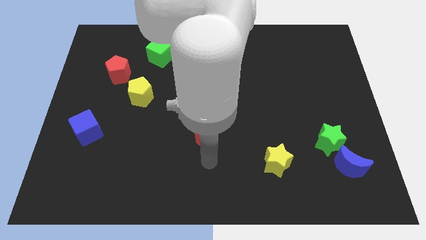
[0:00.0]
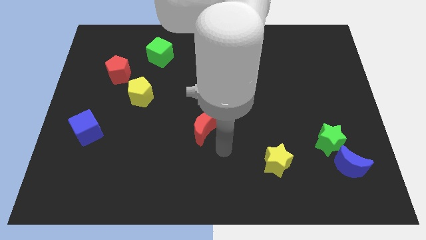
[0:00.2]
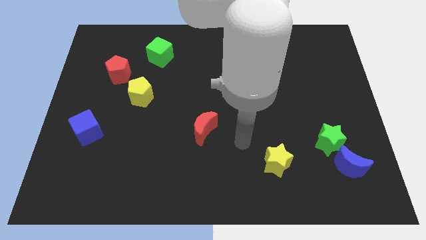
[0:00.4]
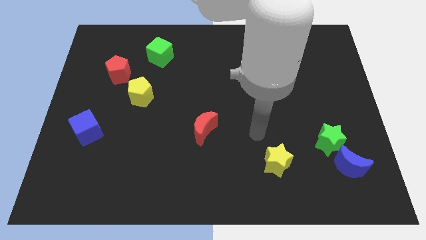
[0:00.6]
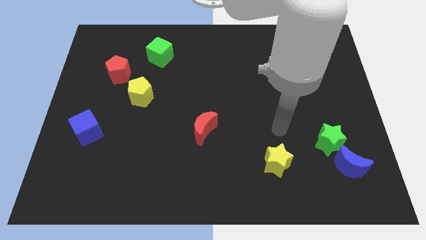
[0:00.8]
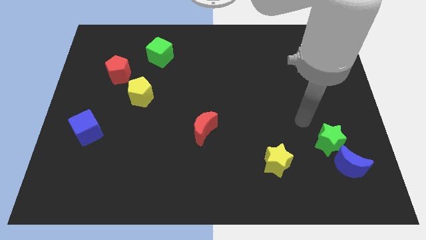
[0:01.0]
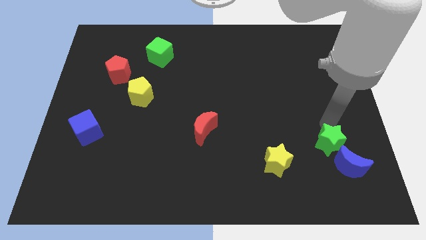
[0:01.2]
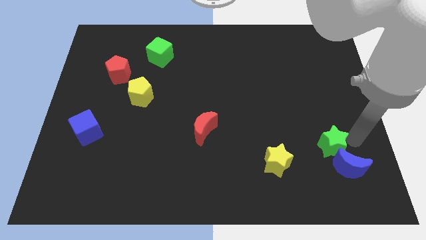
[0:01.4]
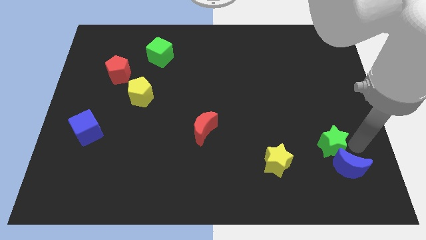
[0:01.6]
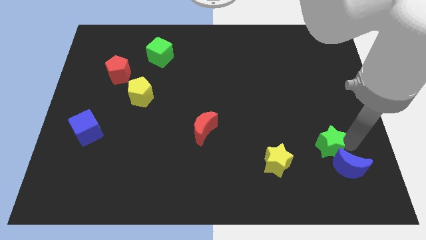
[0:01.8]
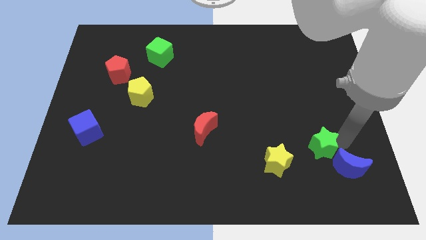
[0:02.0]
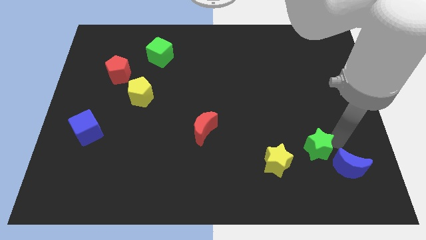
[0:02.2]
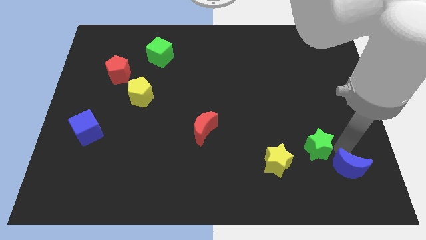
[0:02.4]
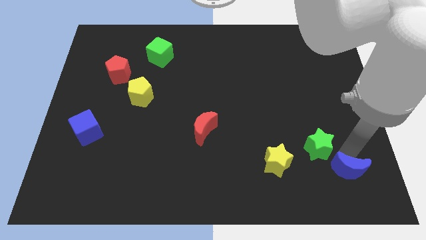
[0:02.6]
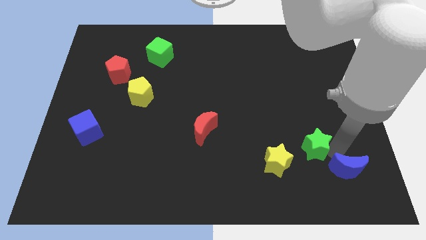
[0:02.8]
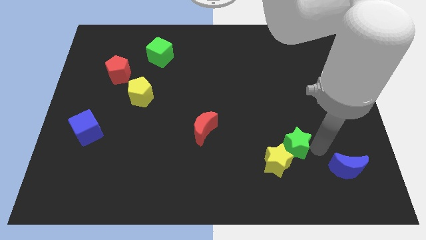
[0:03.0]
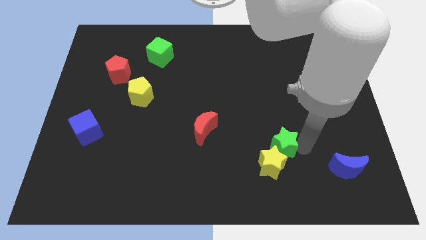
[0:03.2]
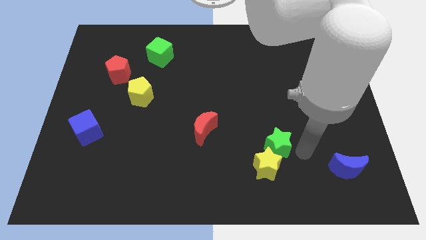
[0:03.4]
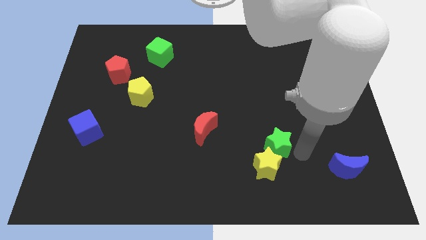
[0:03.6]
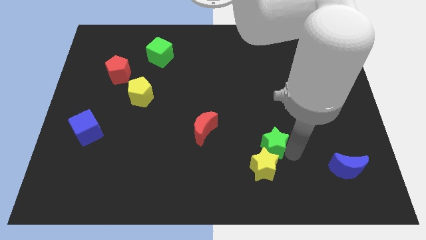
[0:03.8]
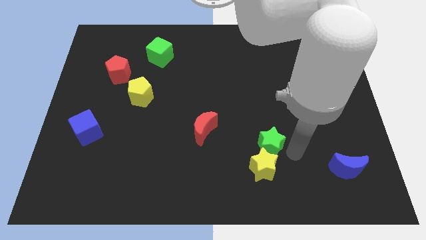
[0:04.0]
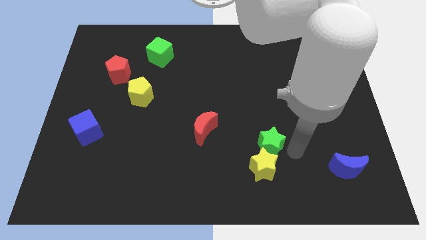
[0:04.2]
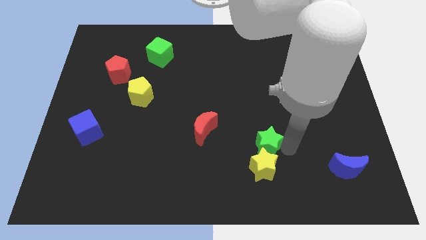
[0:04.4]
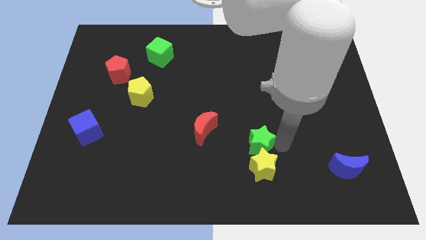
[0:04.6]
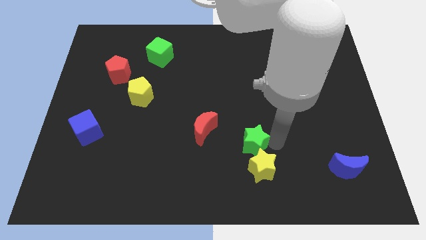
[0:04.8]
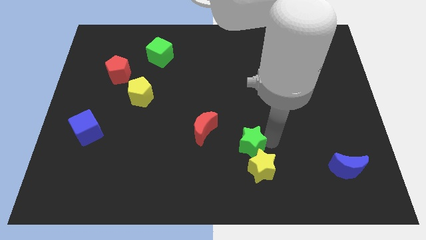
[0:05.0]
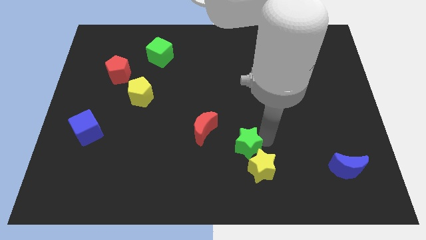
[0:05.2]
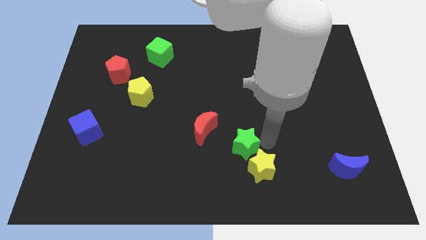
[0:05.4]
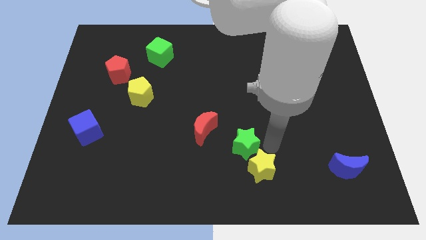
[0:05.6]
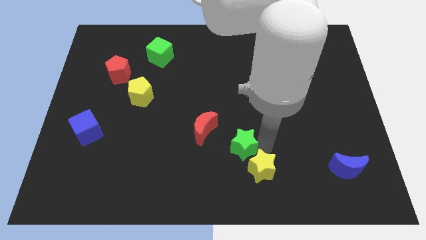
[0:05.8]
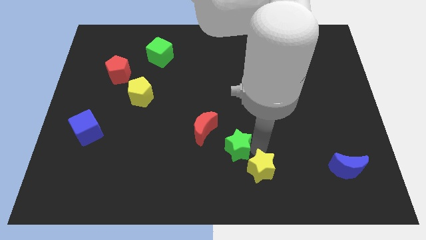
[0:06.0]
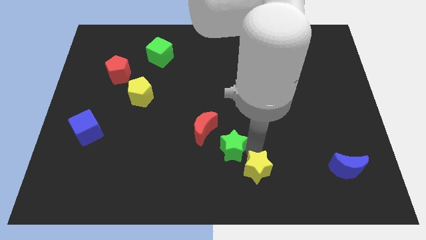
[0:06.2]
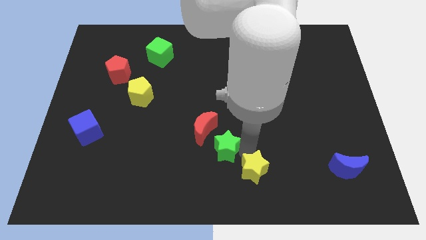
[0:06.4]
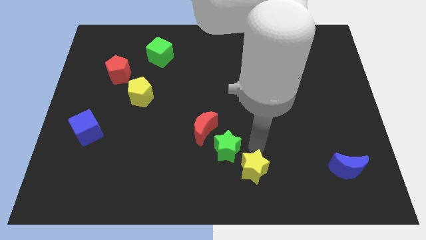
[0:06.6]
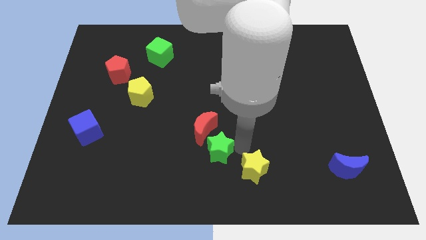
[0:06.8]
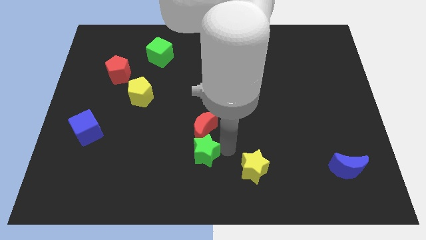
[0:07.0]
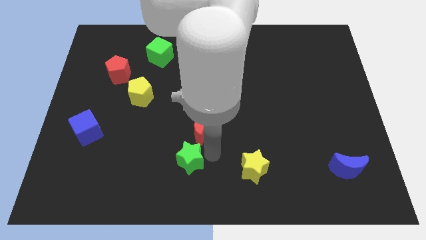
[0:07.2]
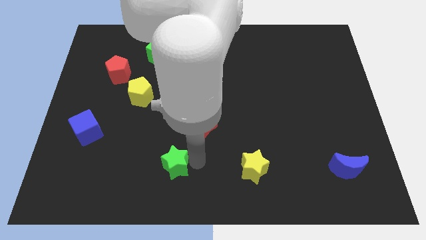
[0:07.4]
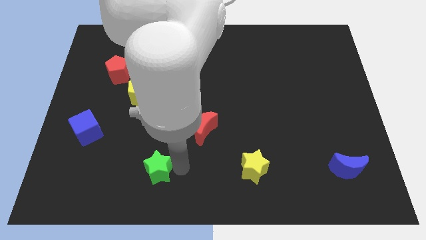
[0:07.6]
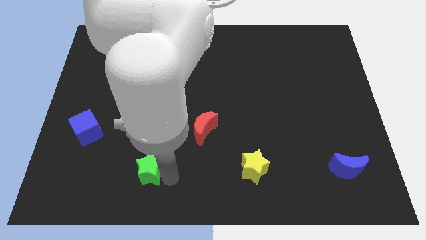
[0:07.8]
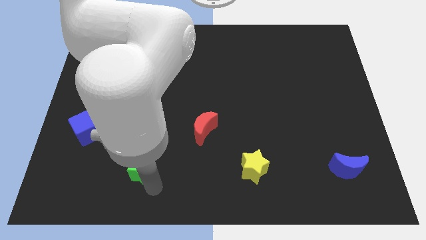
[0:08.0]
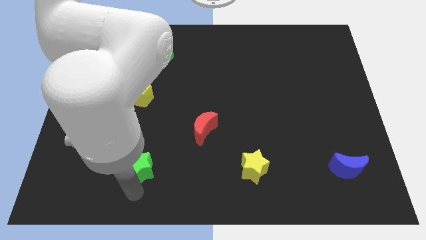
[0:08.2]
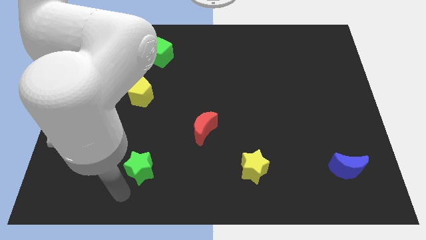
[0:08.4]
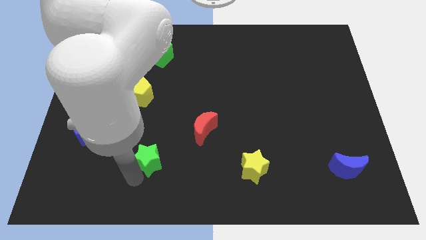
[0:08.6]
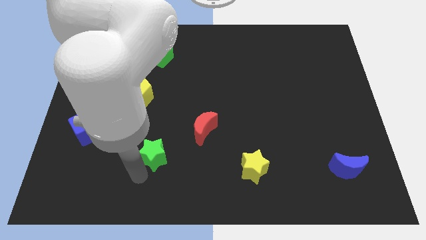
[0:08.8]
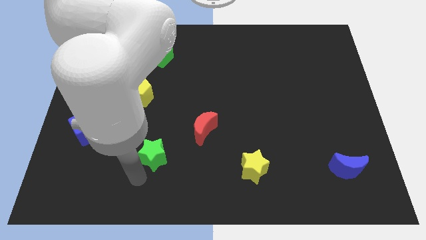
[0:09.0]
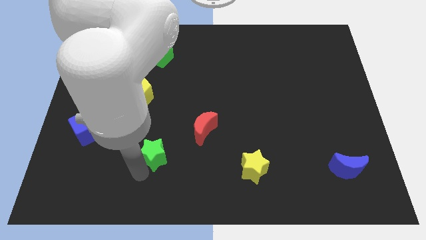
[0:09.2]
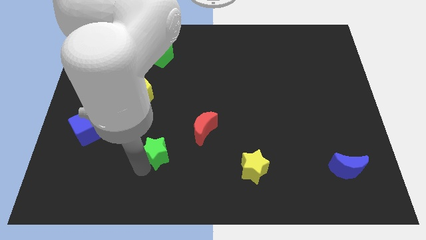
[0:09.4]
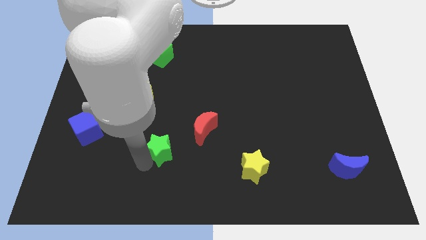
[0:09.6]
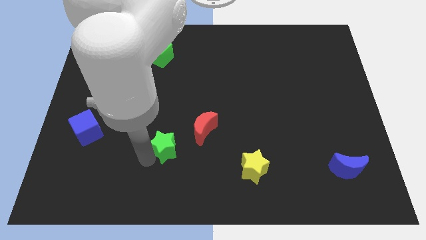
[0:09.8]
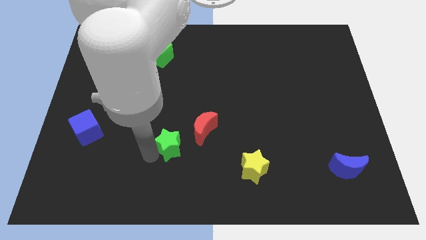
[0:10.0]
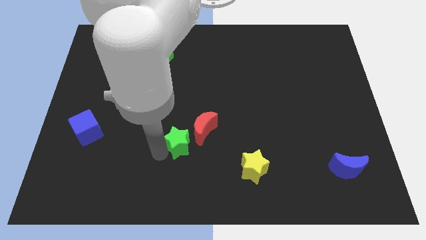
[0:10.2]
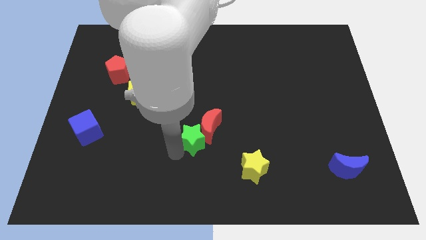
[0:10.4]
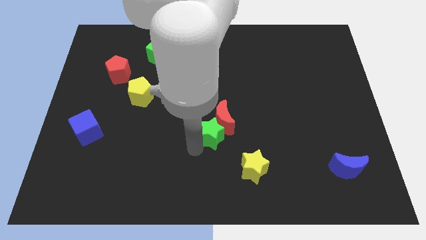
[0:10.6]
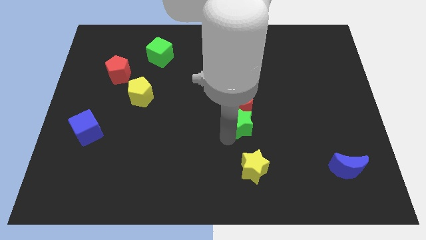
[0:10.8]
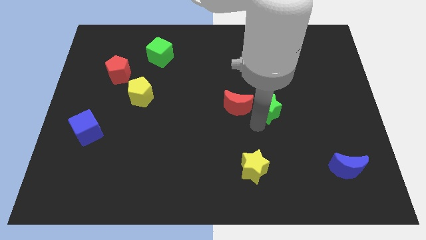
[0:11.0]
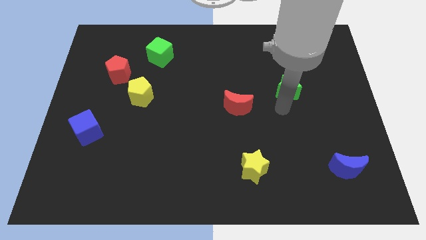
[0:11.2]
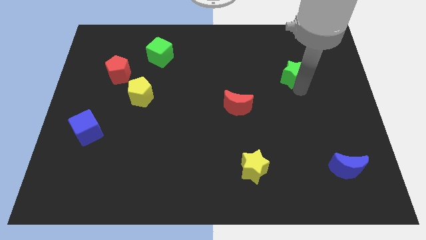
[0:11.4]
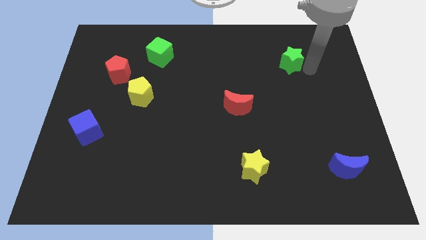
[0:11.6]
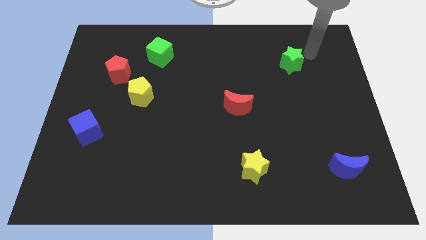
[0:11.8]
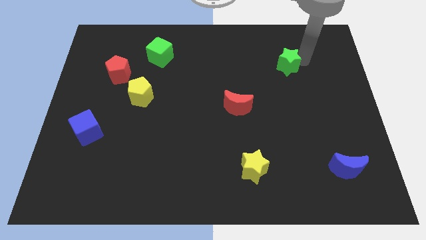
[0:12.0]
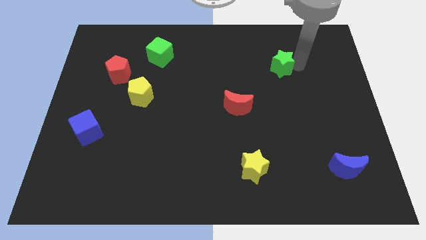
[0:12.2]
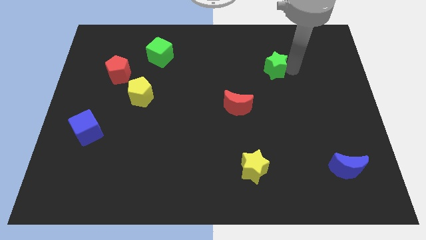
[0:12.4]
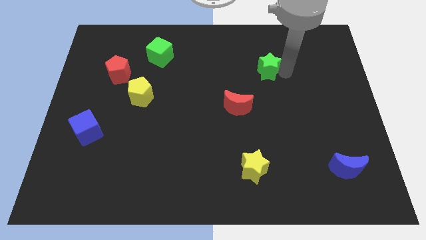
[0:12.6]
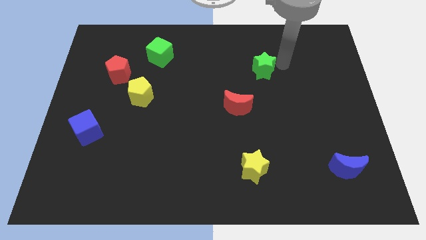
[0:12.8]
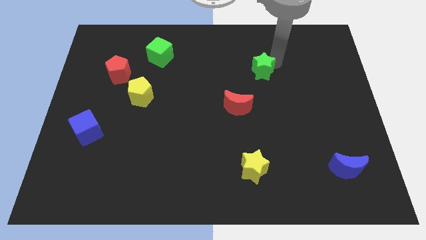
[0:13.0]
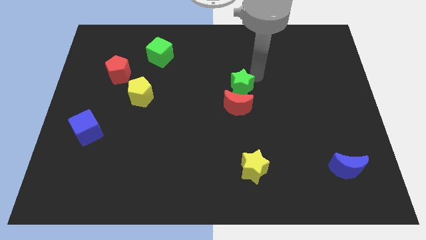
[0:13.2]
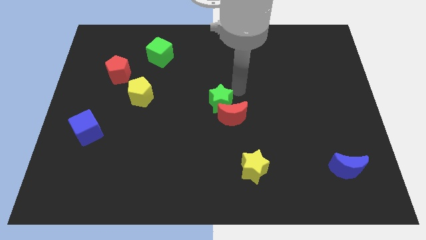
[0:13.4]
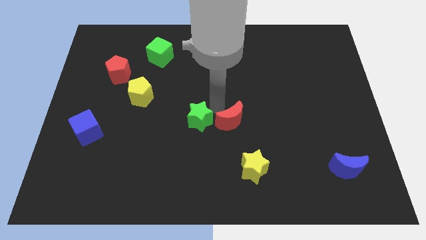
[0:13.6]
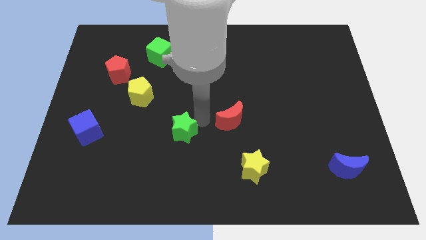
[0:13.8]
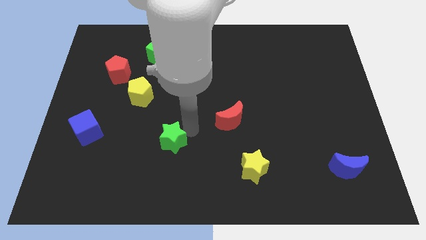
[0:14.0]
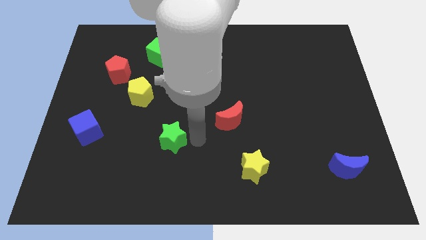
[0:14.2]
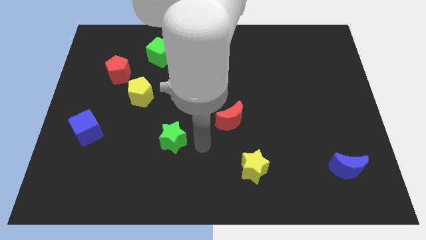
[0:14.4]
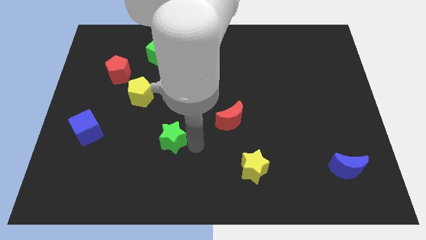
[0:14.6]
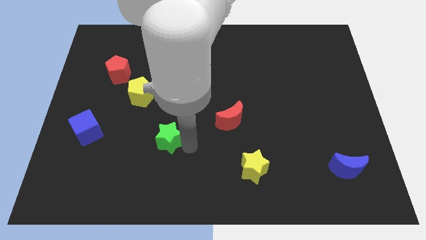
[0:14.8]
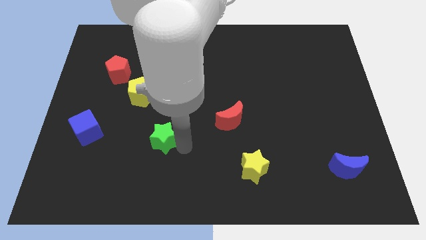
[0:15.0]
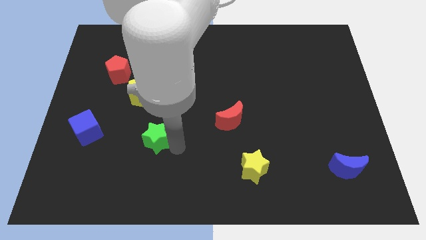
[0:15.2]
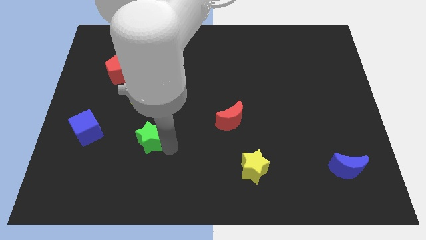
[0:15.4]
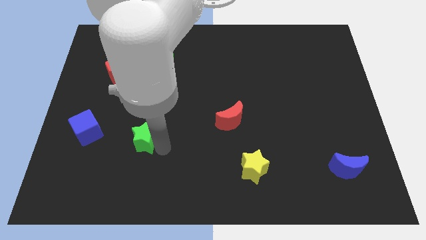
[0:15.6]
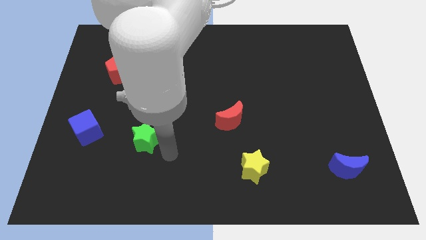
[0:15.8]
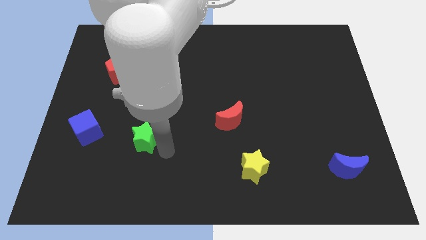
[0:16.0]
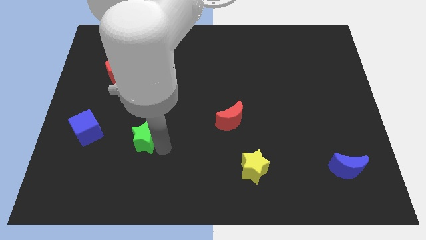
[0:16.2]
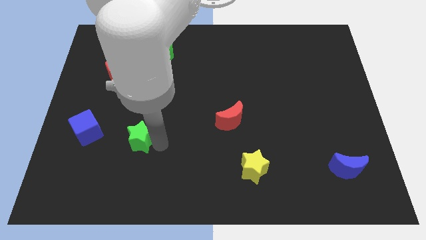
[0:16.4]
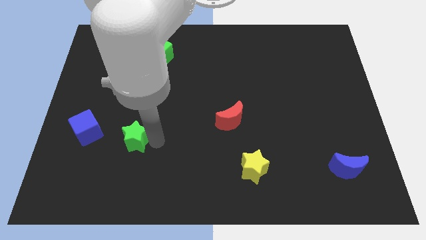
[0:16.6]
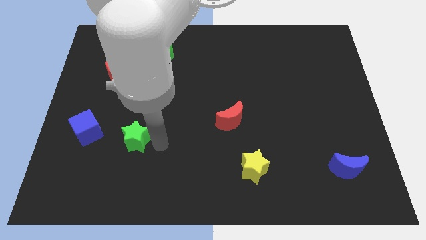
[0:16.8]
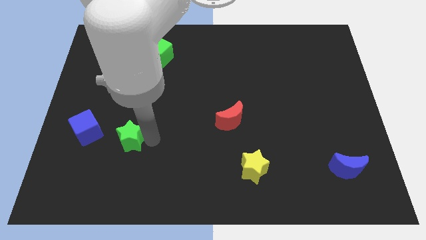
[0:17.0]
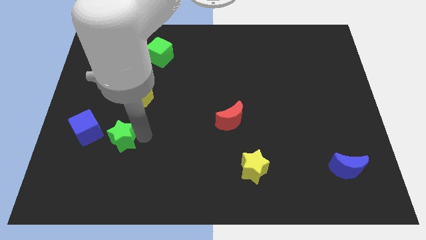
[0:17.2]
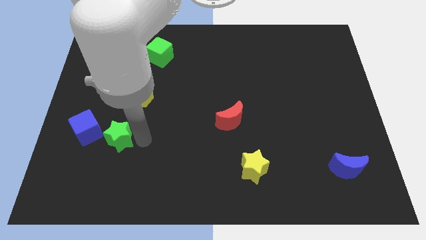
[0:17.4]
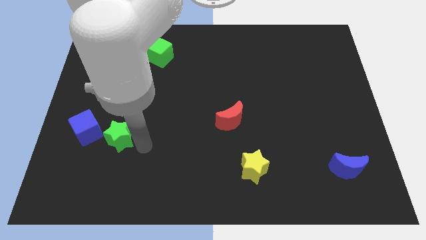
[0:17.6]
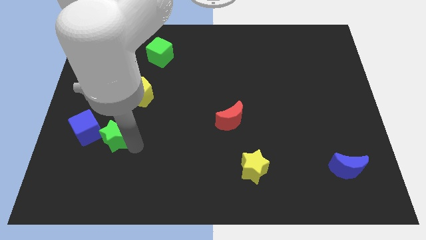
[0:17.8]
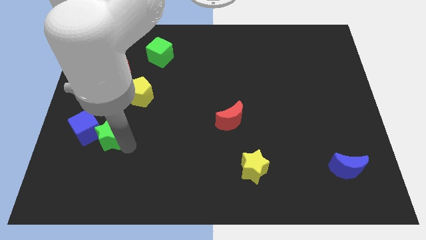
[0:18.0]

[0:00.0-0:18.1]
push the green star close to the blue cube
